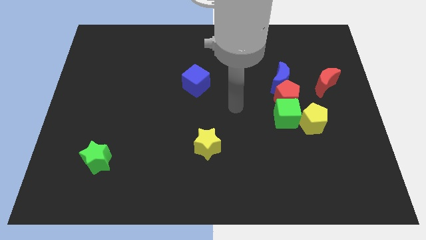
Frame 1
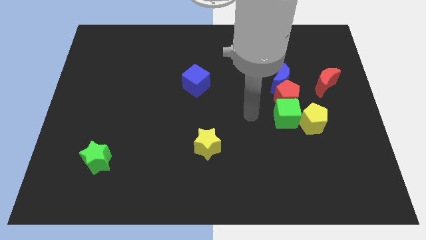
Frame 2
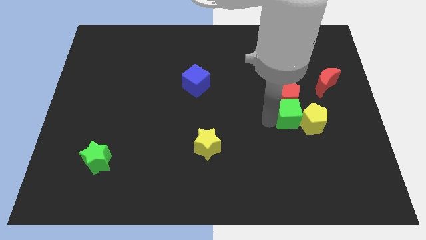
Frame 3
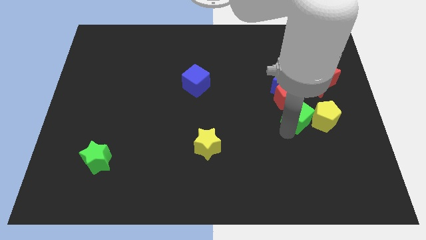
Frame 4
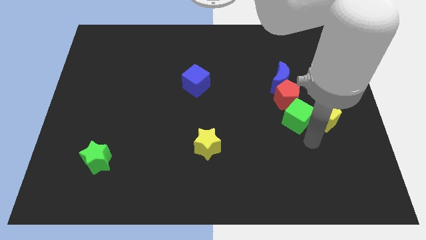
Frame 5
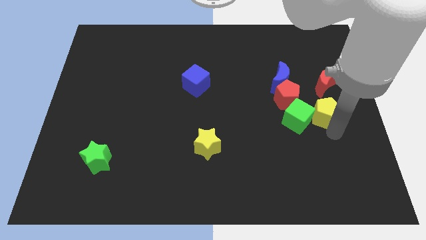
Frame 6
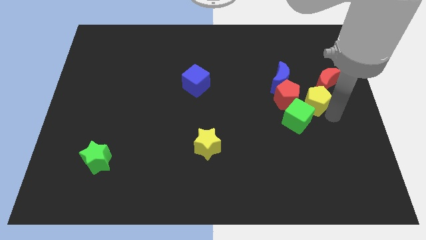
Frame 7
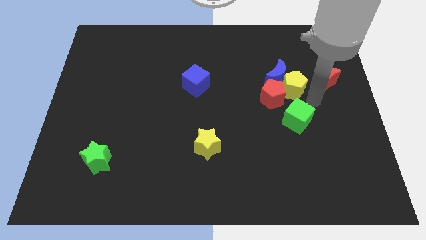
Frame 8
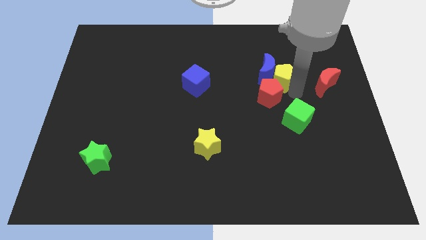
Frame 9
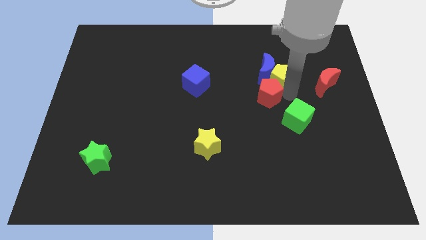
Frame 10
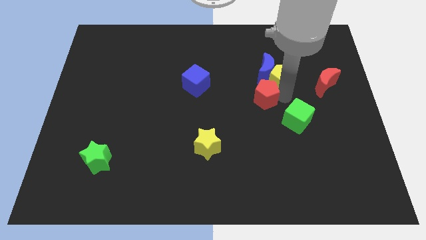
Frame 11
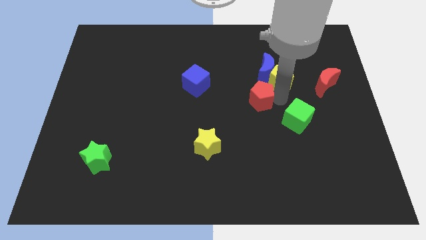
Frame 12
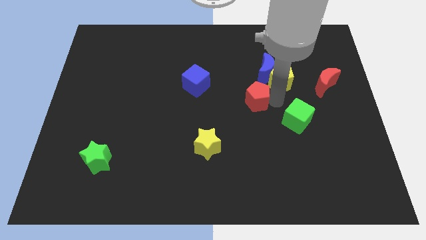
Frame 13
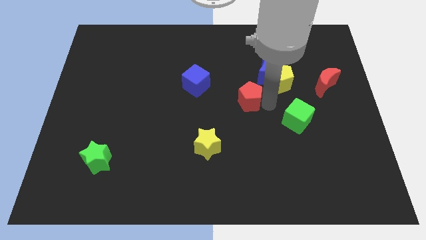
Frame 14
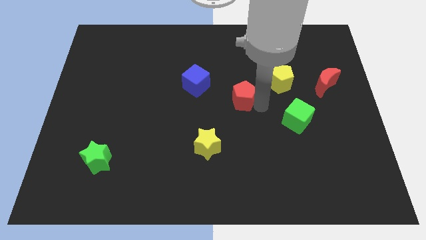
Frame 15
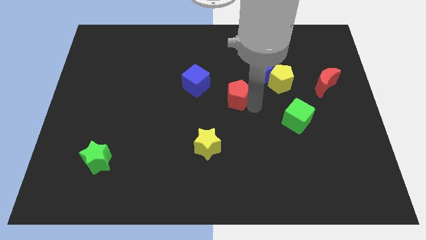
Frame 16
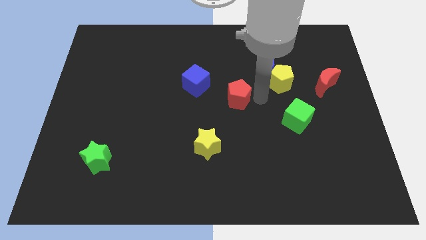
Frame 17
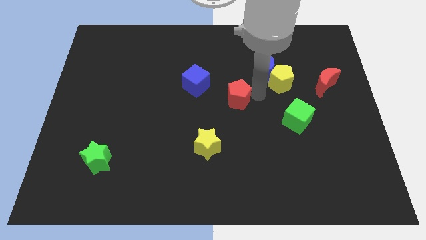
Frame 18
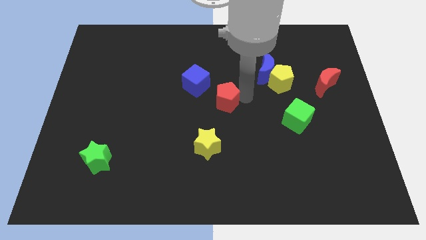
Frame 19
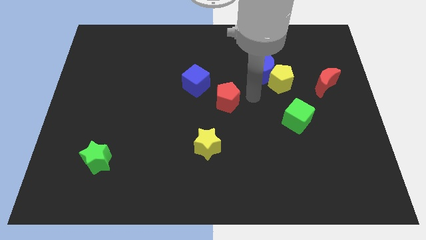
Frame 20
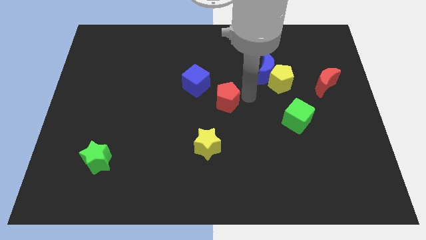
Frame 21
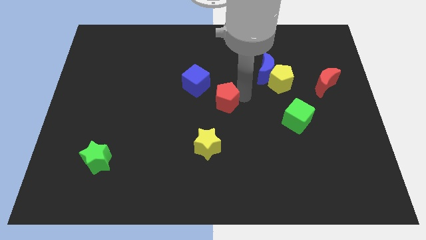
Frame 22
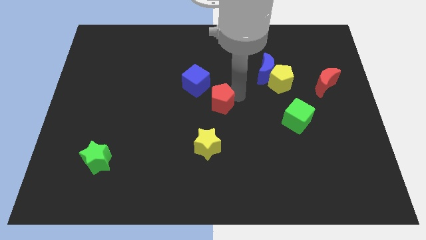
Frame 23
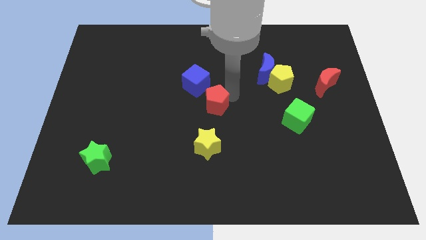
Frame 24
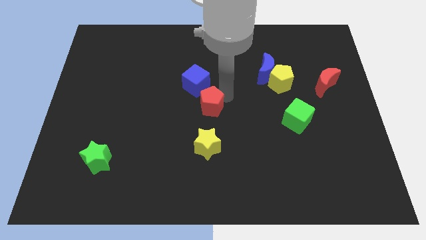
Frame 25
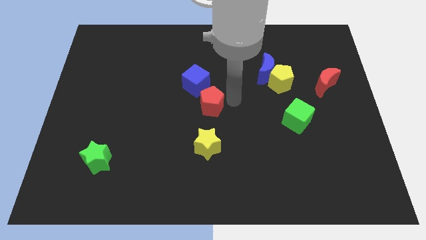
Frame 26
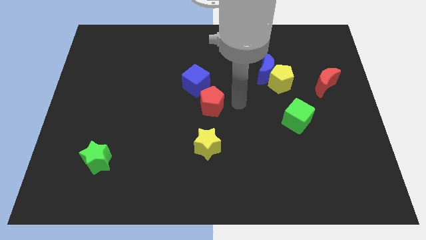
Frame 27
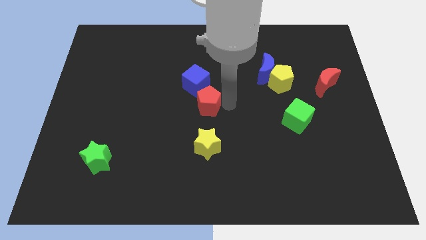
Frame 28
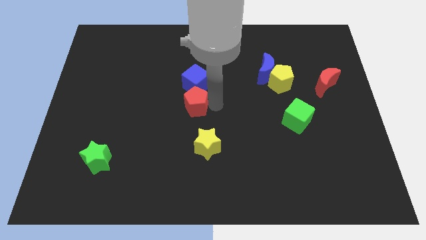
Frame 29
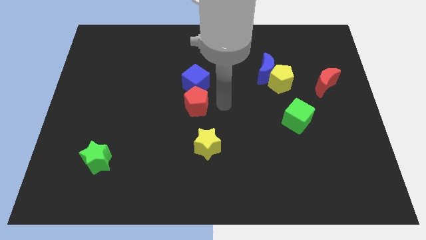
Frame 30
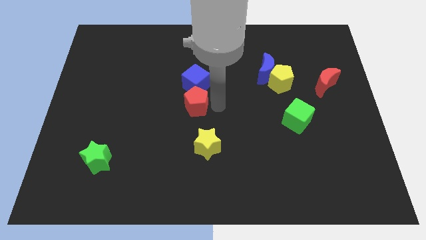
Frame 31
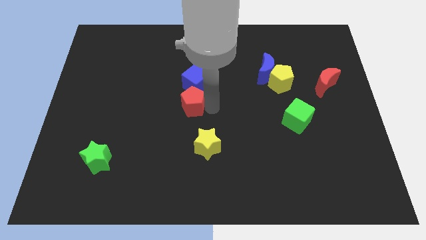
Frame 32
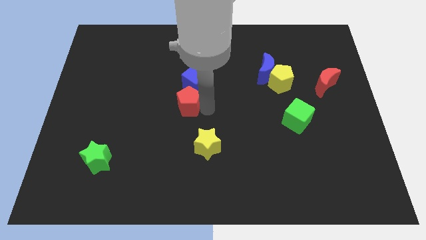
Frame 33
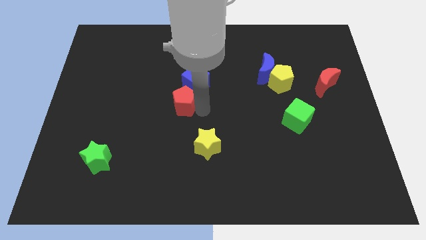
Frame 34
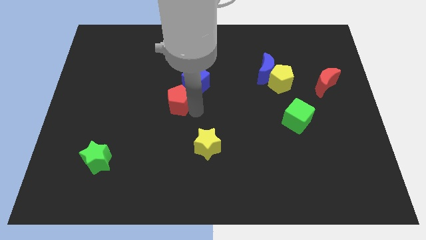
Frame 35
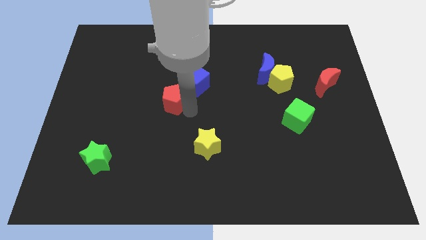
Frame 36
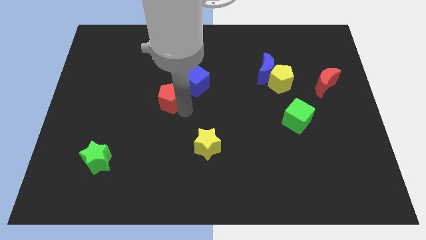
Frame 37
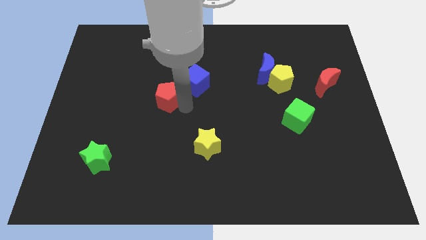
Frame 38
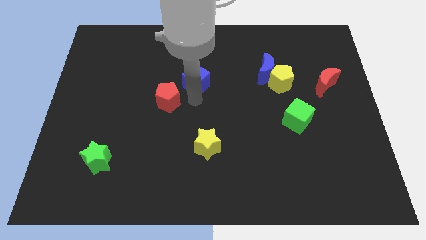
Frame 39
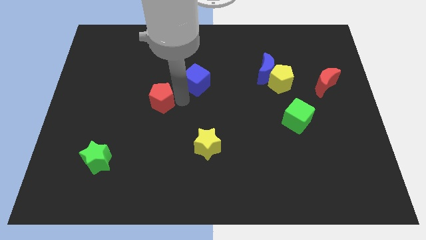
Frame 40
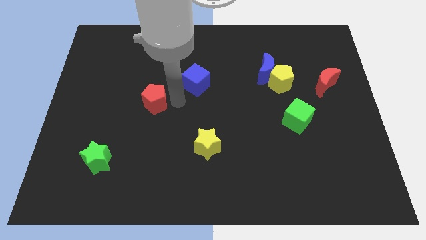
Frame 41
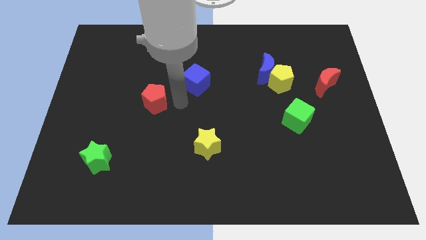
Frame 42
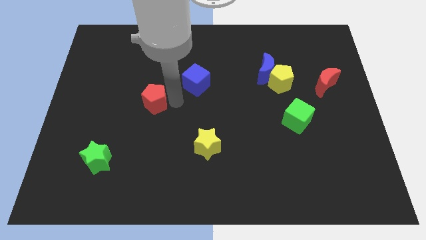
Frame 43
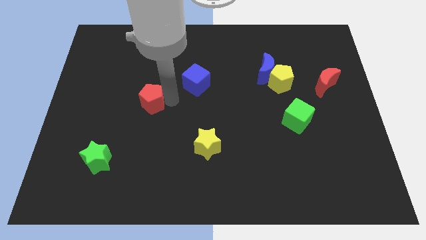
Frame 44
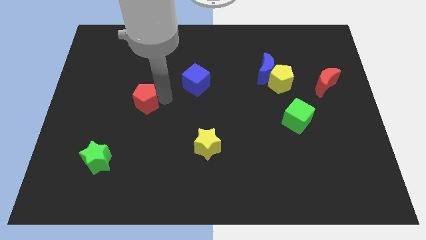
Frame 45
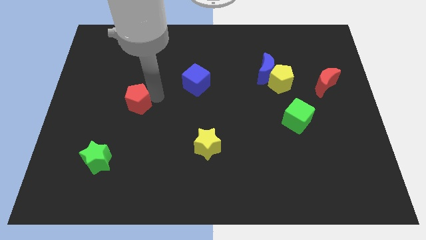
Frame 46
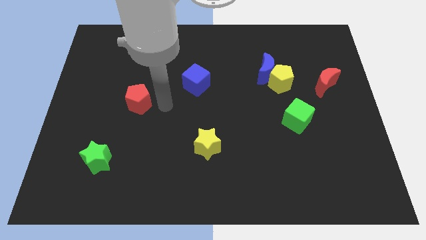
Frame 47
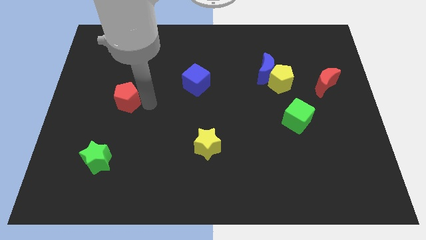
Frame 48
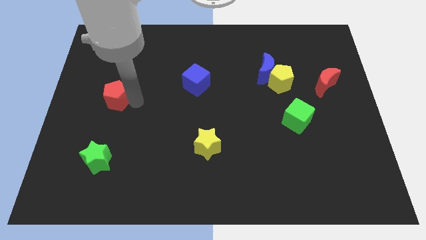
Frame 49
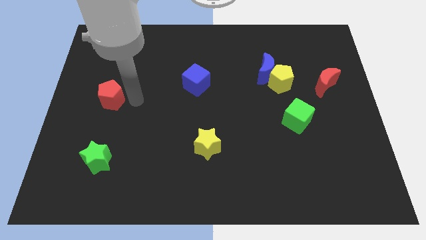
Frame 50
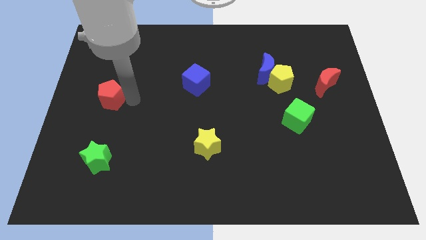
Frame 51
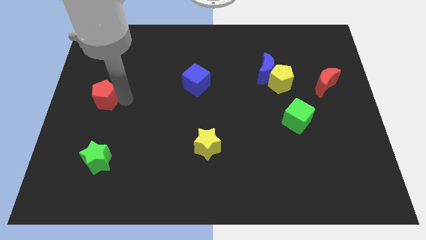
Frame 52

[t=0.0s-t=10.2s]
move the red pentagon to the left side of the board

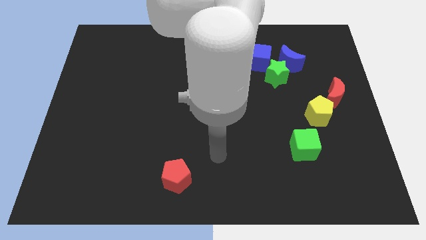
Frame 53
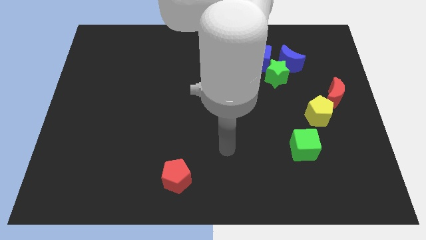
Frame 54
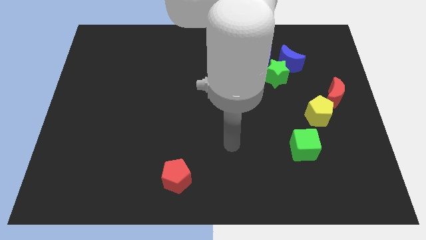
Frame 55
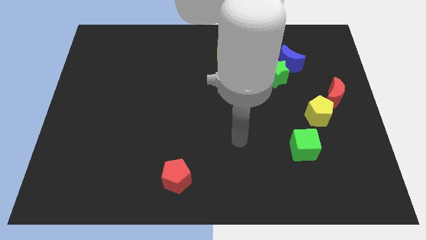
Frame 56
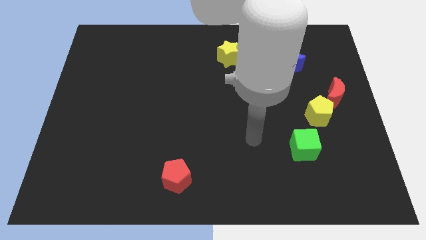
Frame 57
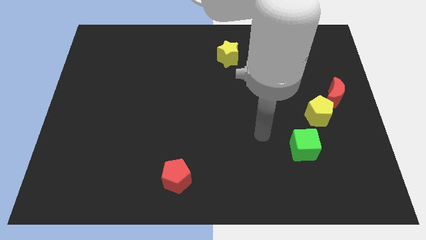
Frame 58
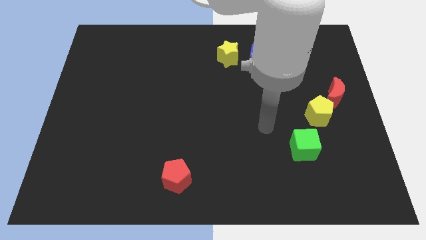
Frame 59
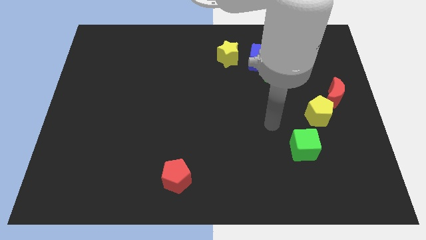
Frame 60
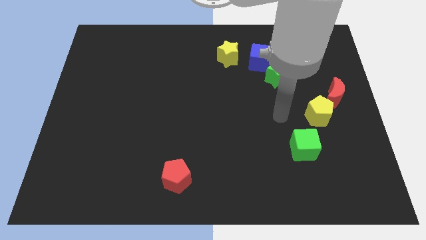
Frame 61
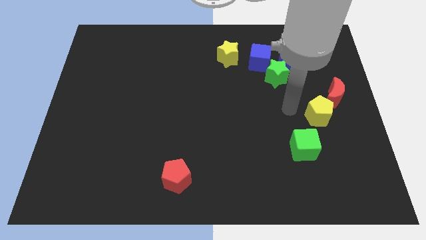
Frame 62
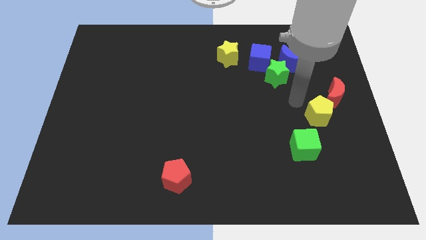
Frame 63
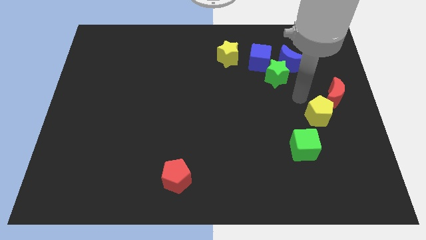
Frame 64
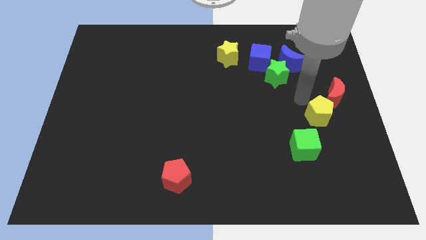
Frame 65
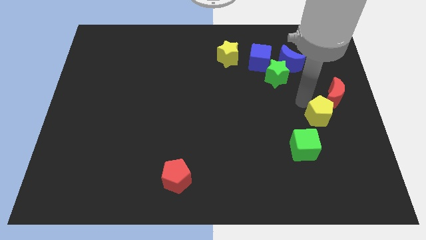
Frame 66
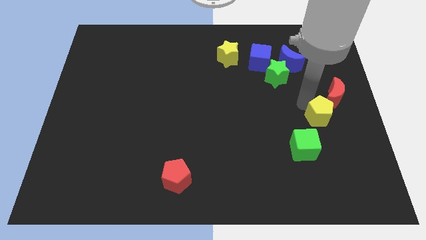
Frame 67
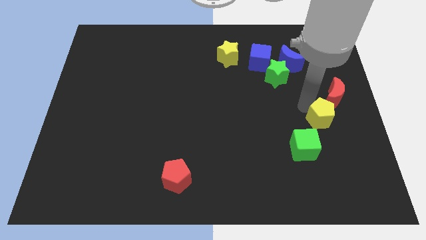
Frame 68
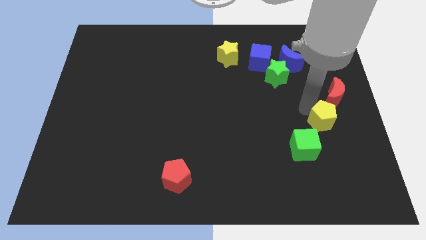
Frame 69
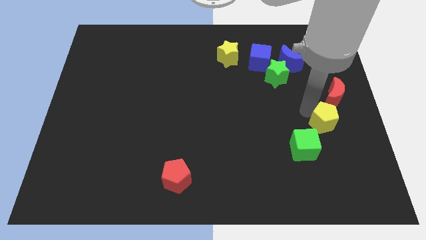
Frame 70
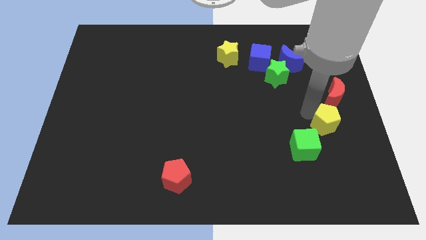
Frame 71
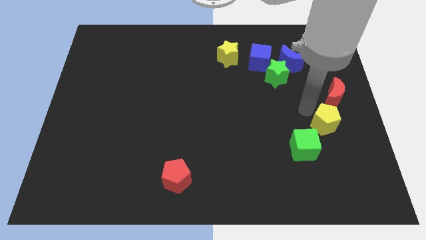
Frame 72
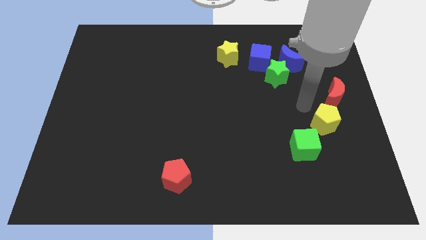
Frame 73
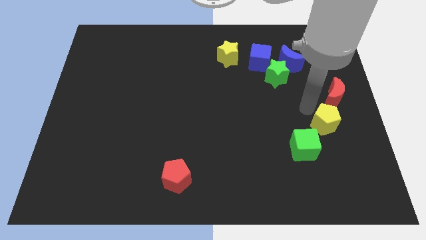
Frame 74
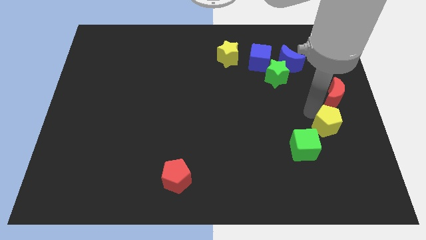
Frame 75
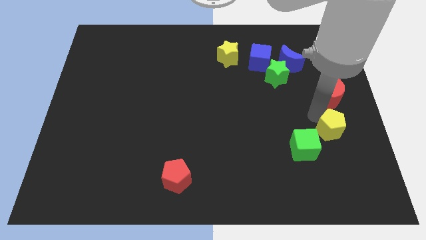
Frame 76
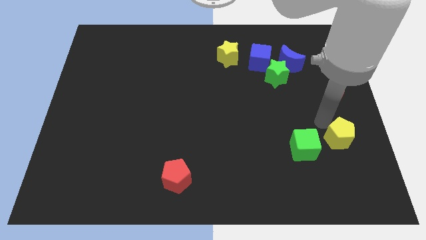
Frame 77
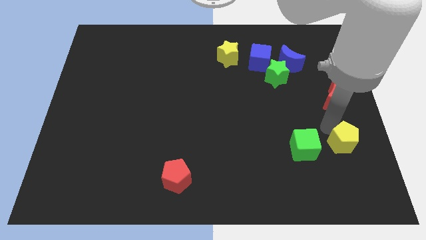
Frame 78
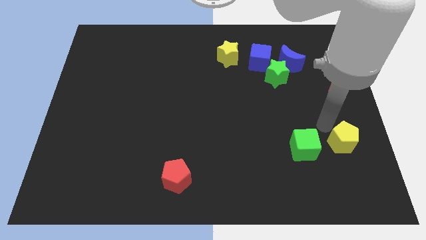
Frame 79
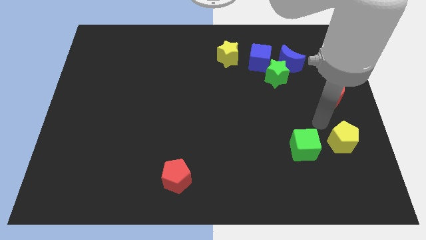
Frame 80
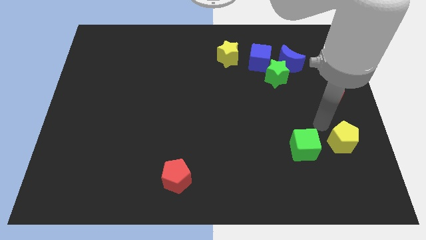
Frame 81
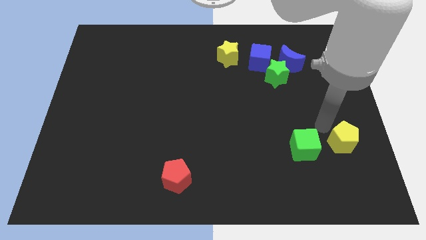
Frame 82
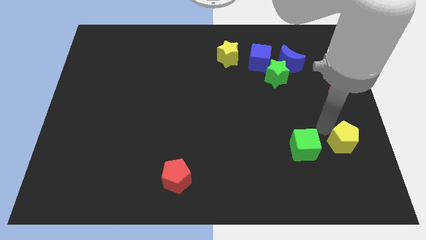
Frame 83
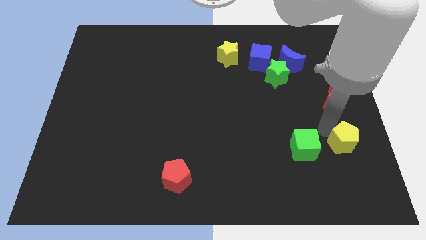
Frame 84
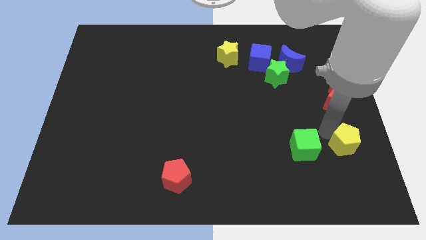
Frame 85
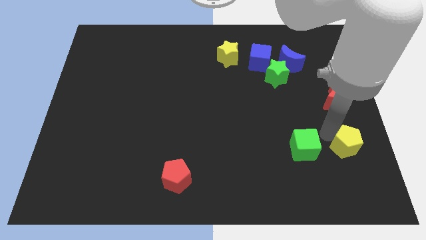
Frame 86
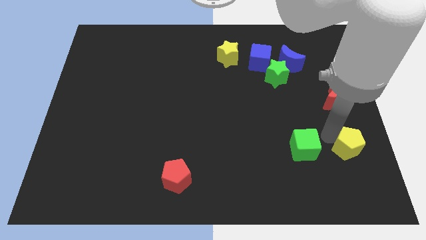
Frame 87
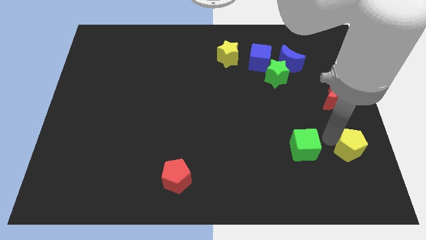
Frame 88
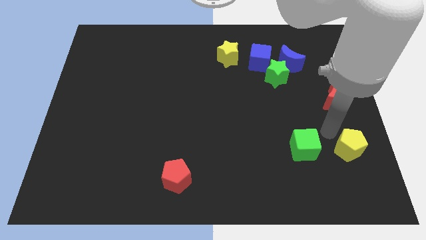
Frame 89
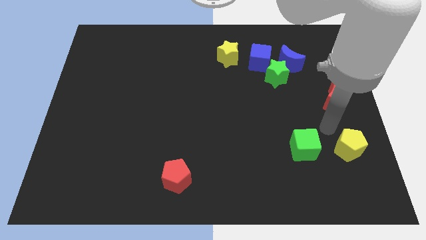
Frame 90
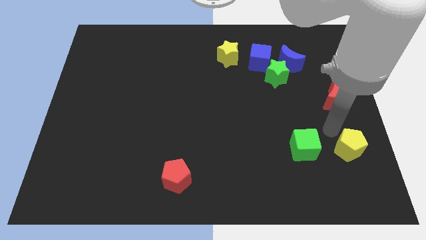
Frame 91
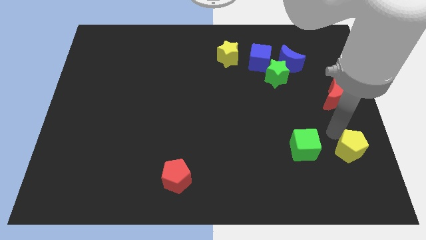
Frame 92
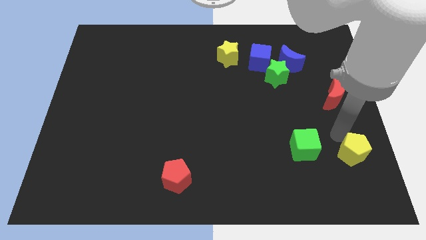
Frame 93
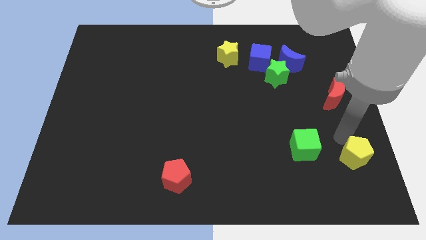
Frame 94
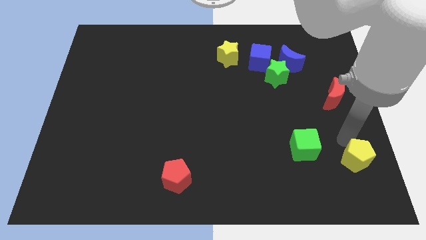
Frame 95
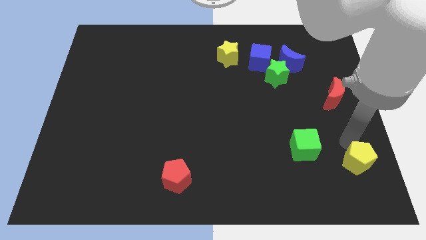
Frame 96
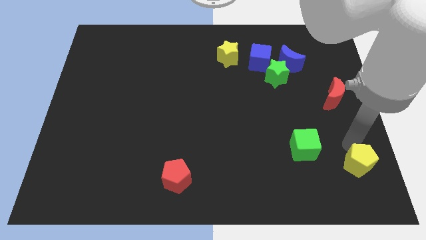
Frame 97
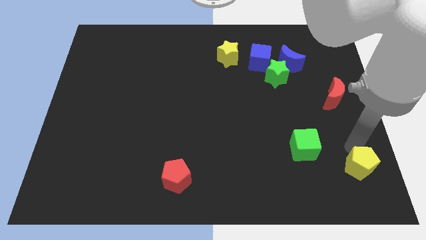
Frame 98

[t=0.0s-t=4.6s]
put the yellow pentagon to the bottom right of the board
